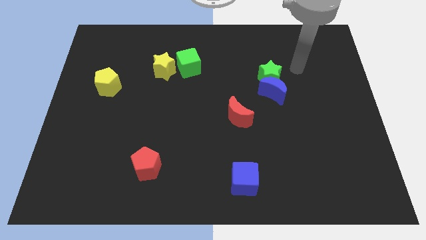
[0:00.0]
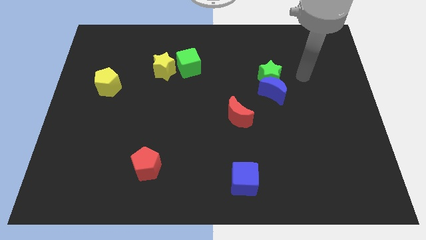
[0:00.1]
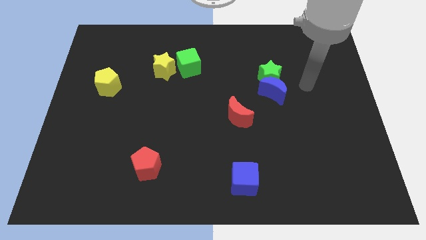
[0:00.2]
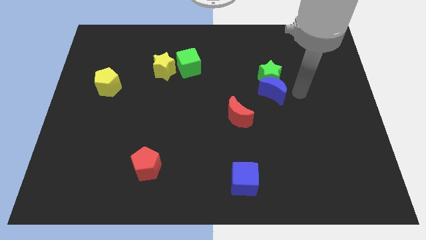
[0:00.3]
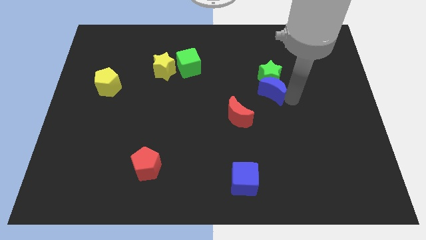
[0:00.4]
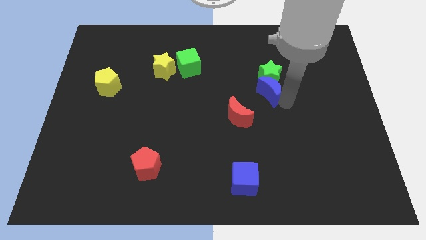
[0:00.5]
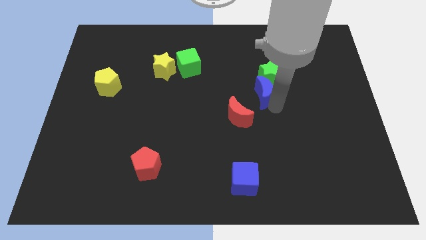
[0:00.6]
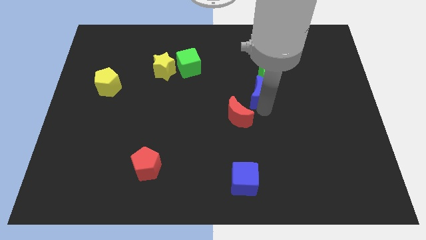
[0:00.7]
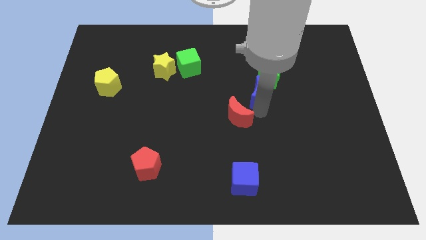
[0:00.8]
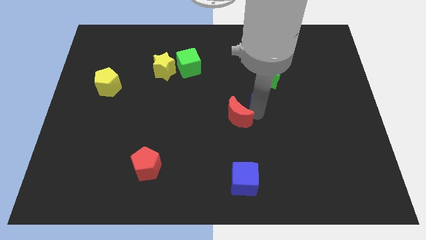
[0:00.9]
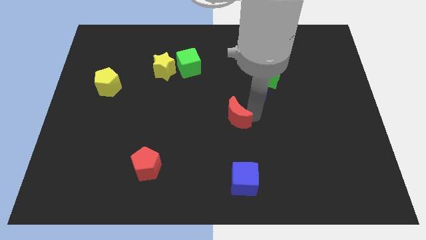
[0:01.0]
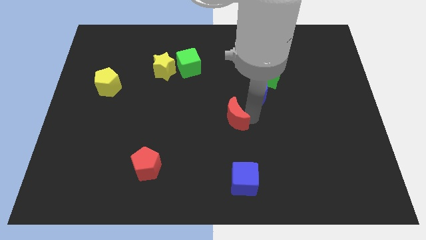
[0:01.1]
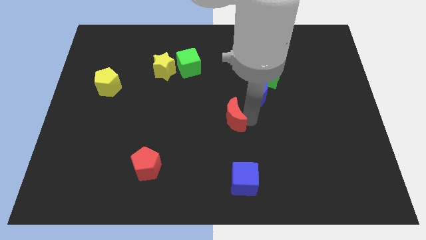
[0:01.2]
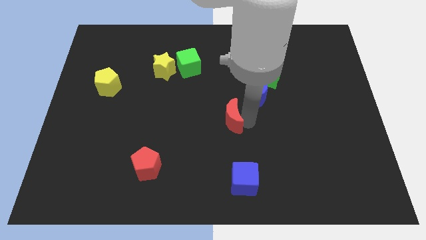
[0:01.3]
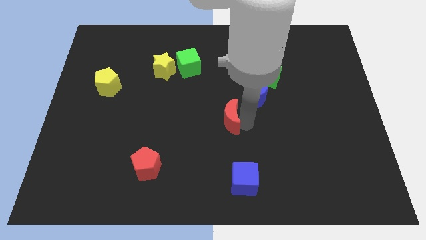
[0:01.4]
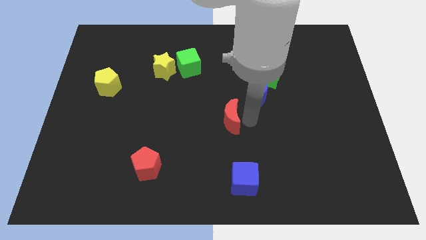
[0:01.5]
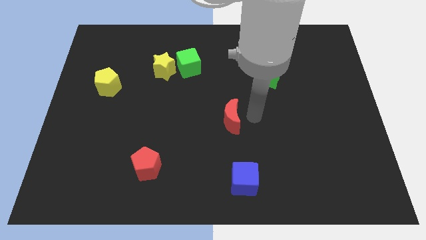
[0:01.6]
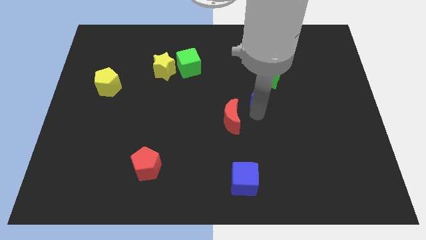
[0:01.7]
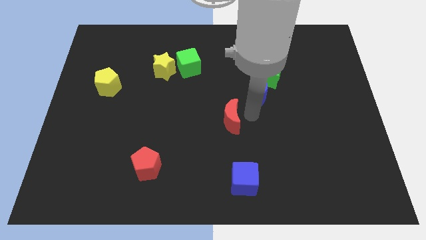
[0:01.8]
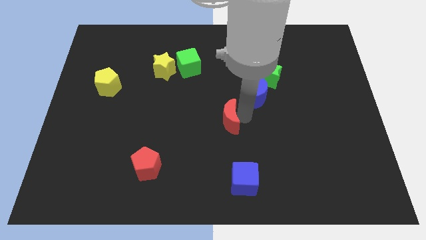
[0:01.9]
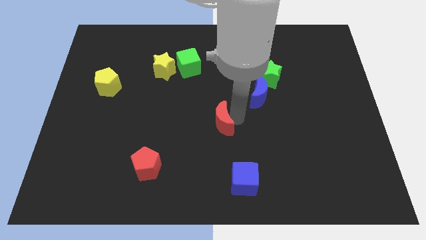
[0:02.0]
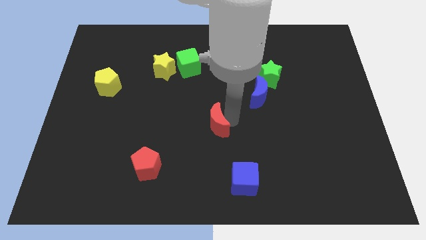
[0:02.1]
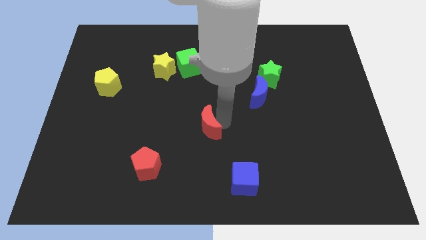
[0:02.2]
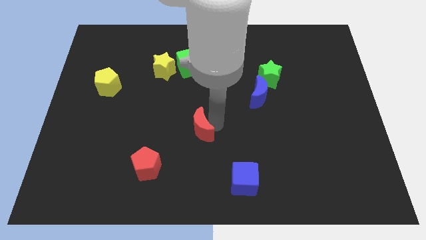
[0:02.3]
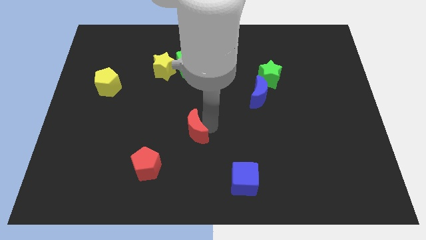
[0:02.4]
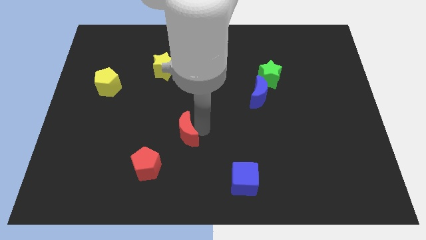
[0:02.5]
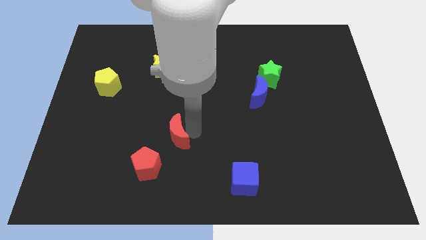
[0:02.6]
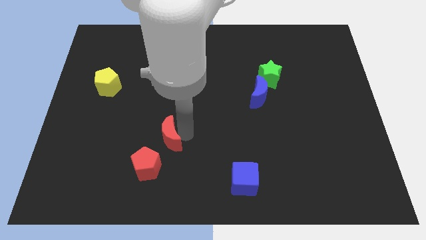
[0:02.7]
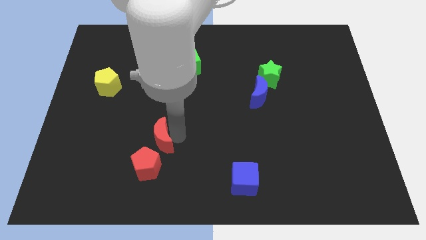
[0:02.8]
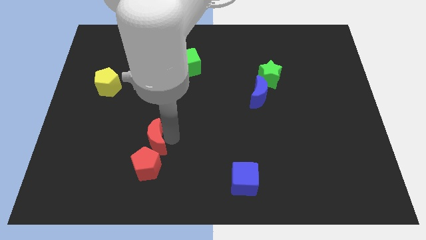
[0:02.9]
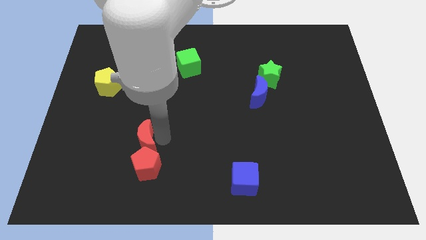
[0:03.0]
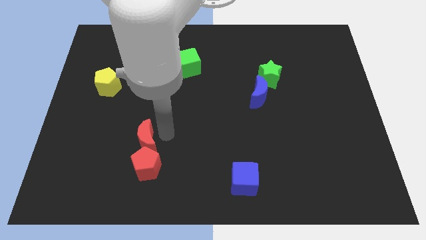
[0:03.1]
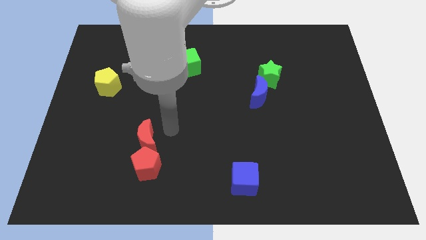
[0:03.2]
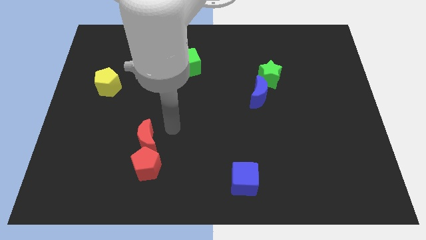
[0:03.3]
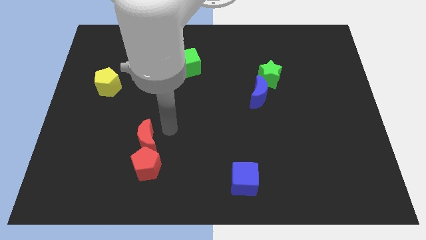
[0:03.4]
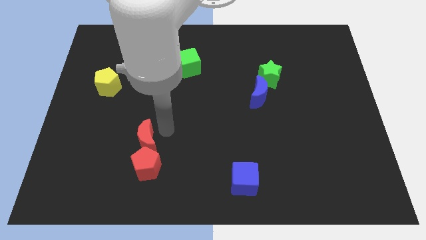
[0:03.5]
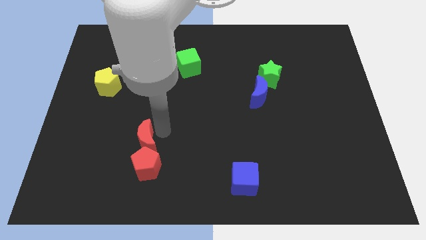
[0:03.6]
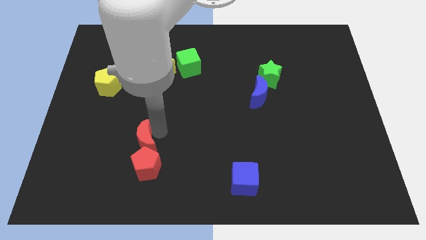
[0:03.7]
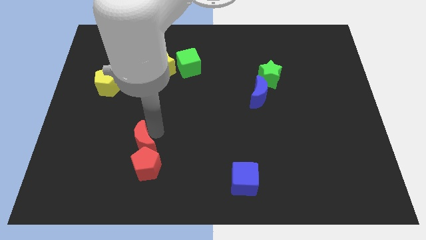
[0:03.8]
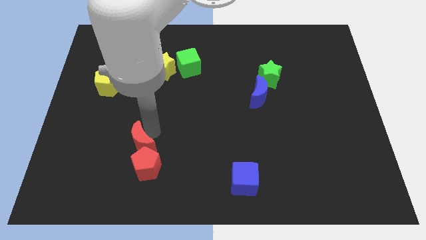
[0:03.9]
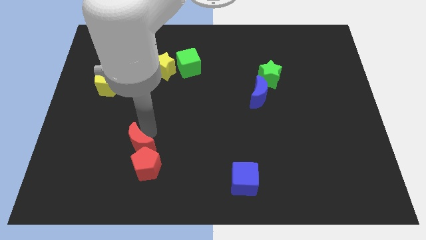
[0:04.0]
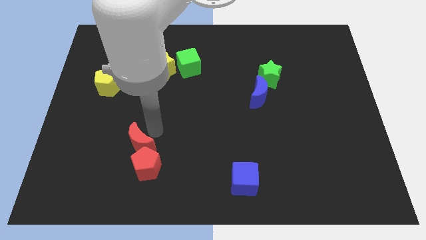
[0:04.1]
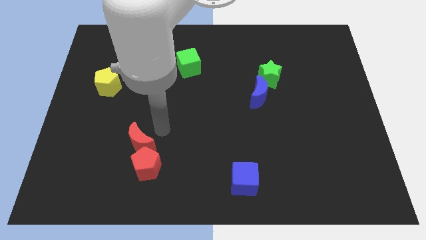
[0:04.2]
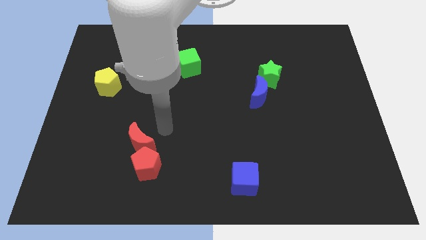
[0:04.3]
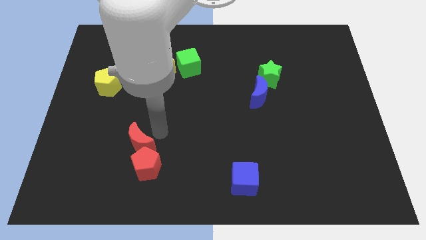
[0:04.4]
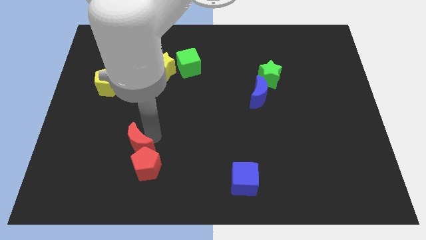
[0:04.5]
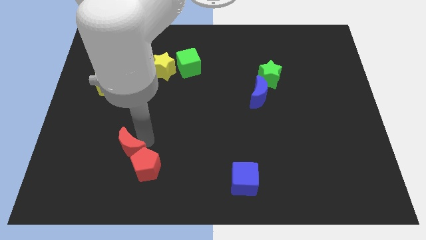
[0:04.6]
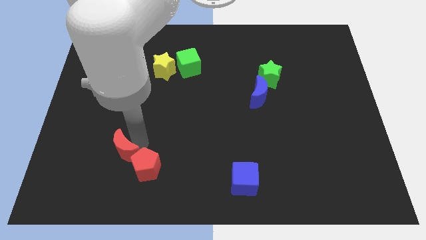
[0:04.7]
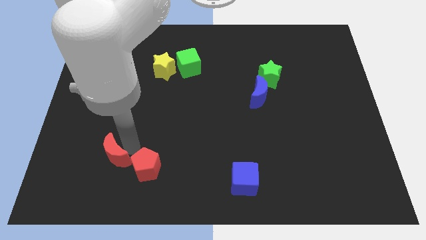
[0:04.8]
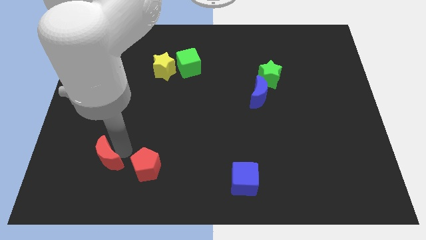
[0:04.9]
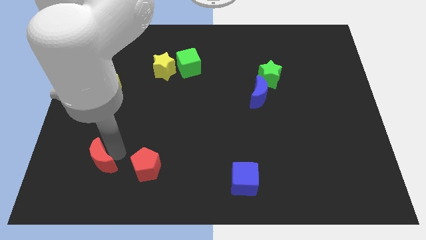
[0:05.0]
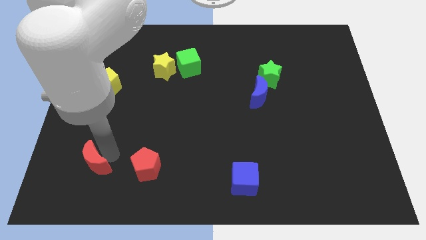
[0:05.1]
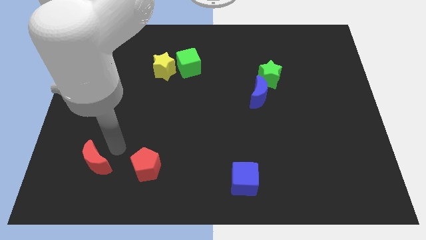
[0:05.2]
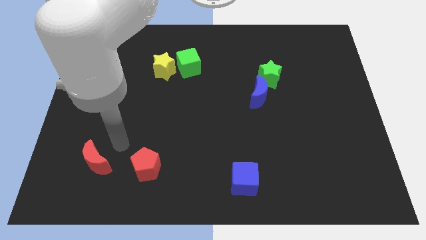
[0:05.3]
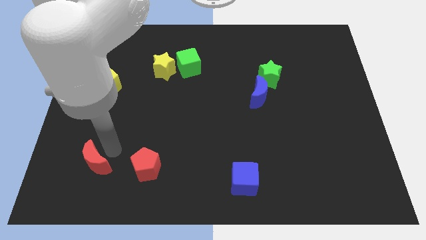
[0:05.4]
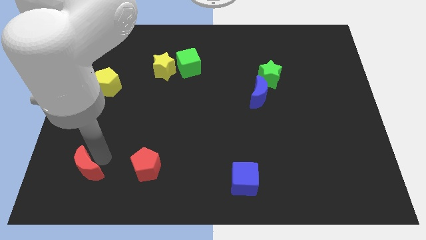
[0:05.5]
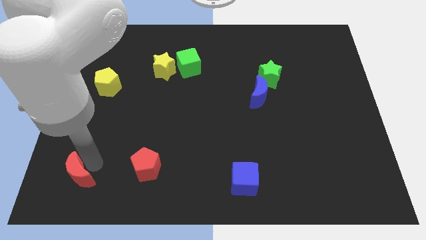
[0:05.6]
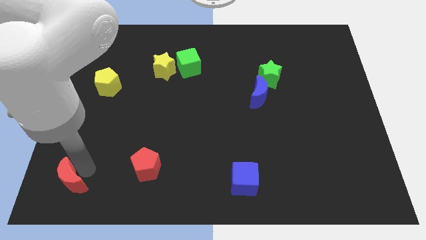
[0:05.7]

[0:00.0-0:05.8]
move the red moon to the bottom left
